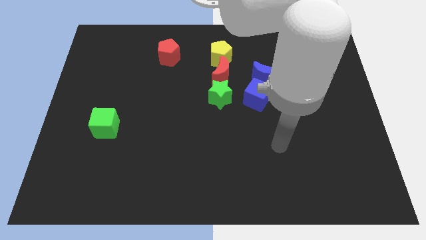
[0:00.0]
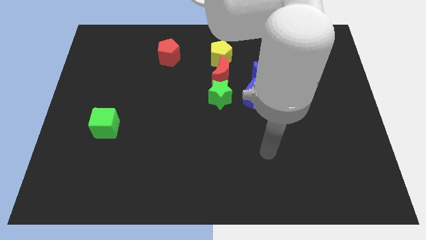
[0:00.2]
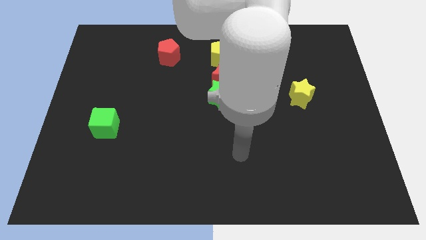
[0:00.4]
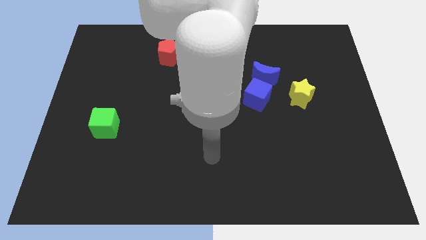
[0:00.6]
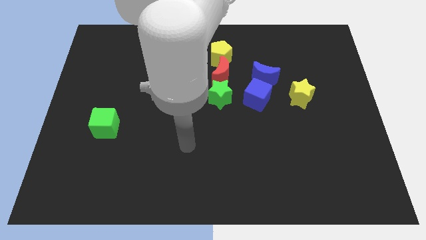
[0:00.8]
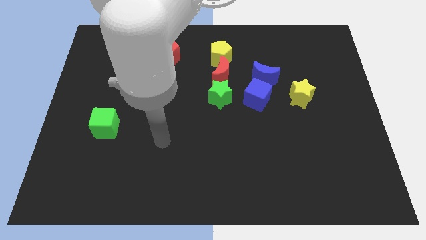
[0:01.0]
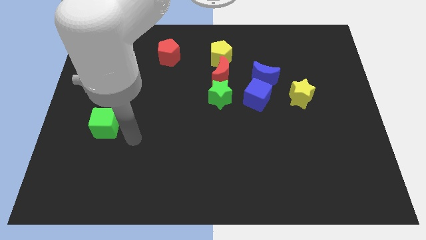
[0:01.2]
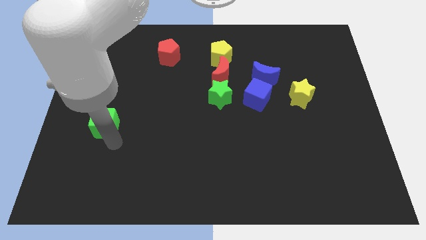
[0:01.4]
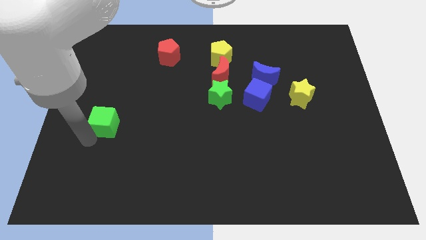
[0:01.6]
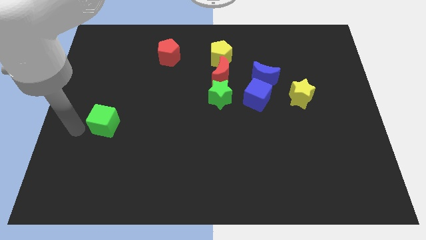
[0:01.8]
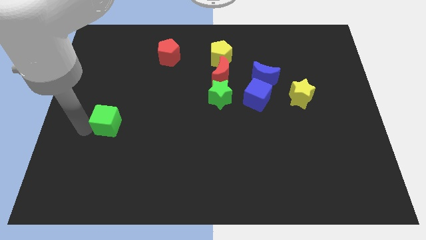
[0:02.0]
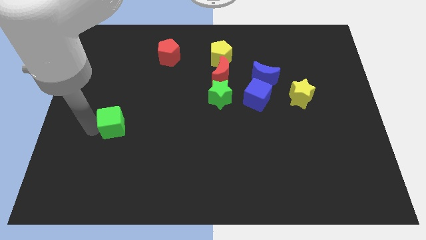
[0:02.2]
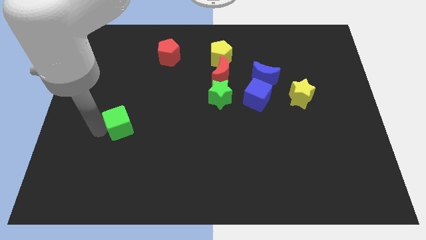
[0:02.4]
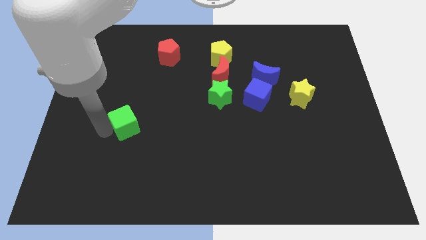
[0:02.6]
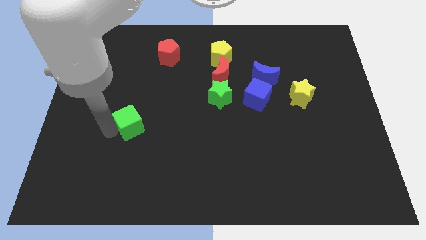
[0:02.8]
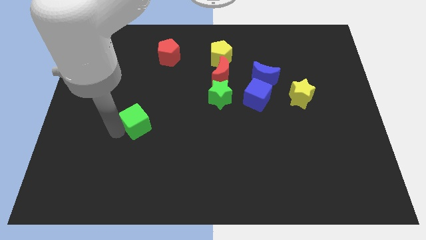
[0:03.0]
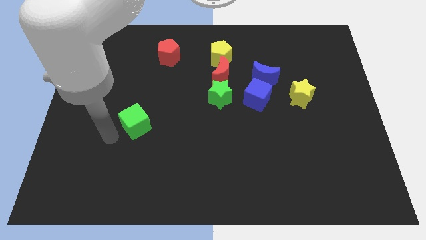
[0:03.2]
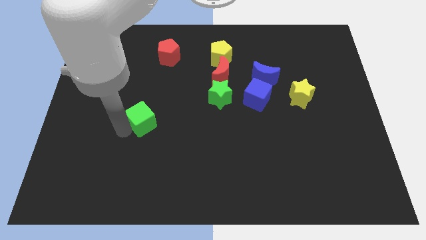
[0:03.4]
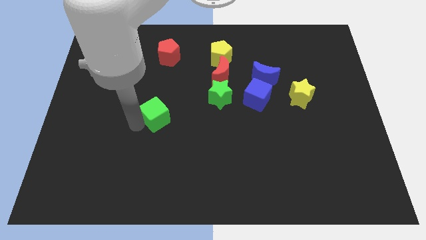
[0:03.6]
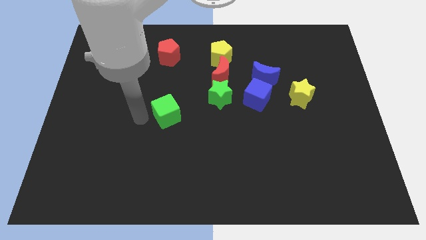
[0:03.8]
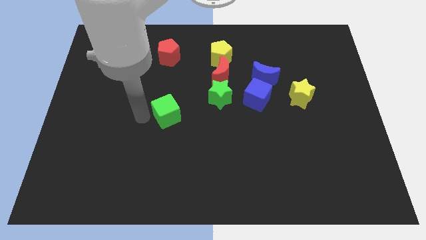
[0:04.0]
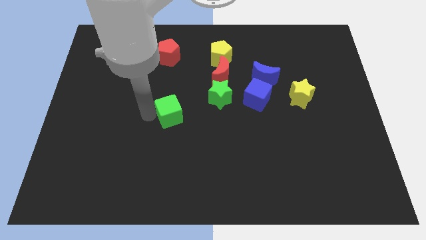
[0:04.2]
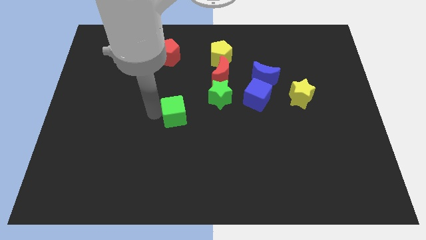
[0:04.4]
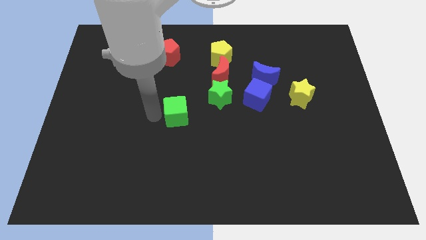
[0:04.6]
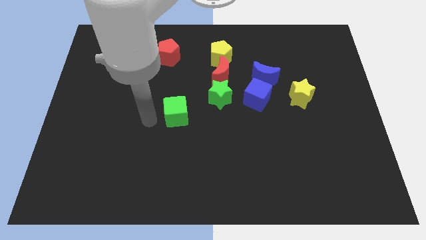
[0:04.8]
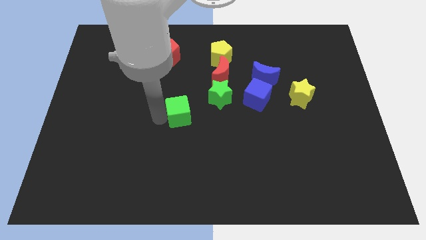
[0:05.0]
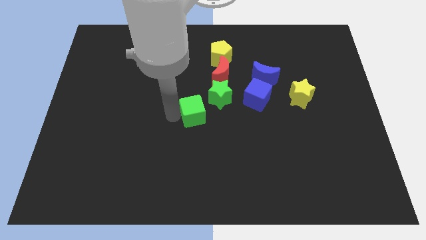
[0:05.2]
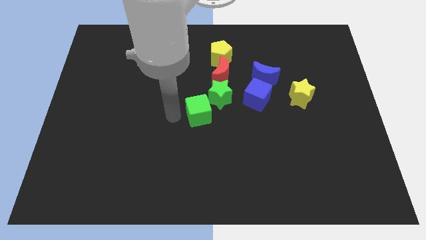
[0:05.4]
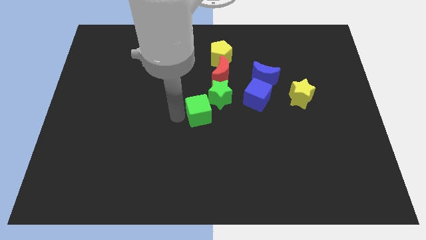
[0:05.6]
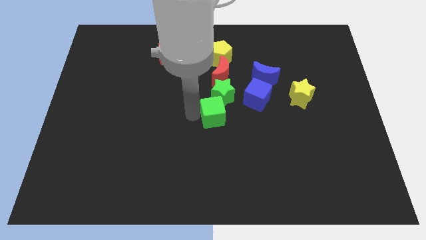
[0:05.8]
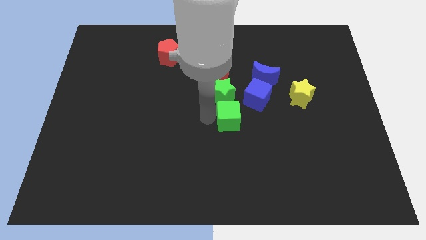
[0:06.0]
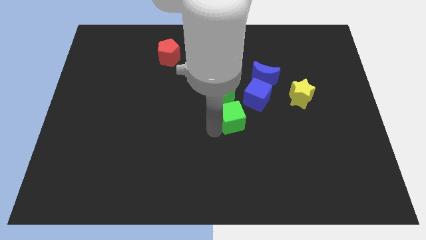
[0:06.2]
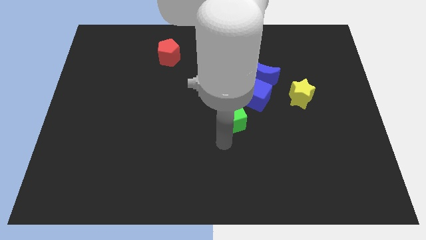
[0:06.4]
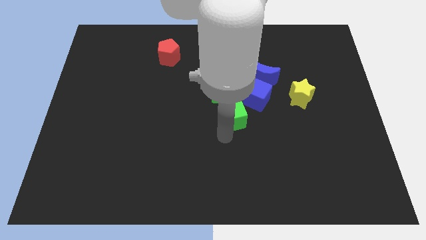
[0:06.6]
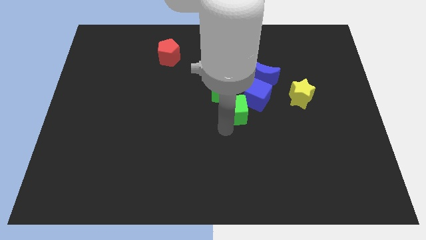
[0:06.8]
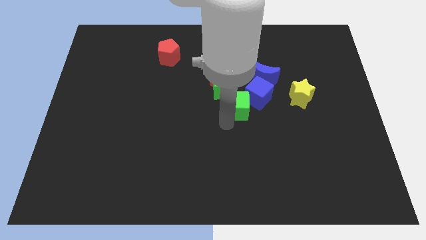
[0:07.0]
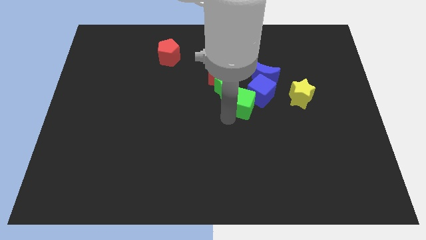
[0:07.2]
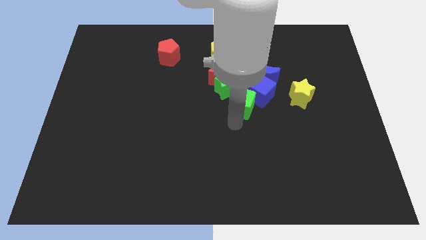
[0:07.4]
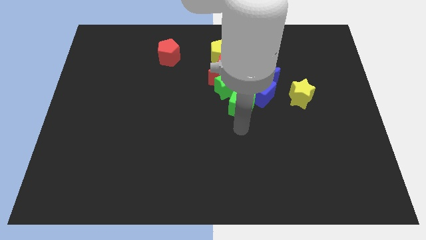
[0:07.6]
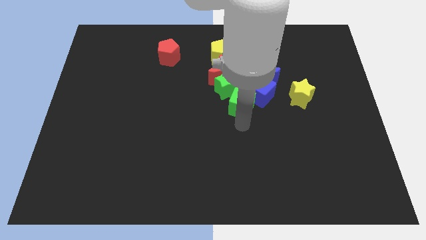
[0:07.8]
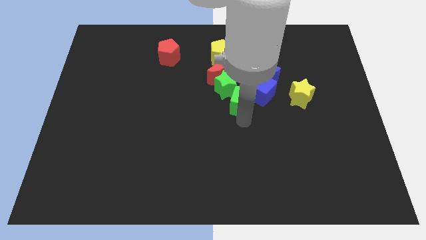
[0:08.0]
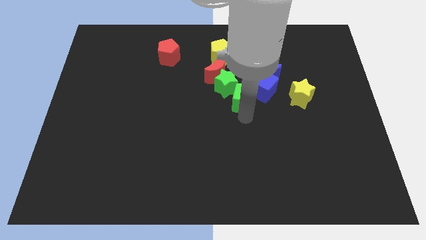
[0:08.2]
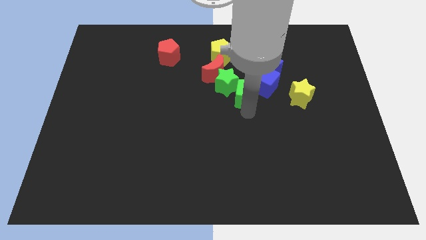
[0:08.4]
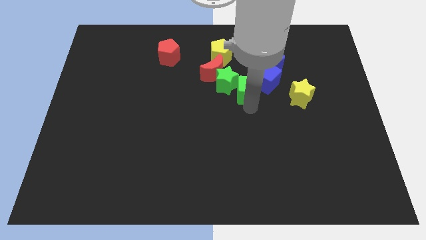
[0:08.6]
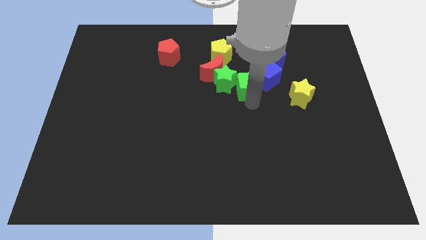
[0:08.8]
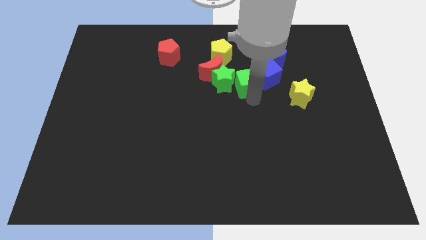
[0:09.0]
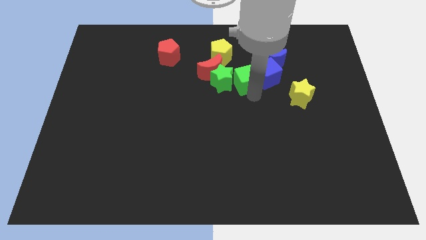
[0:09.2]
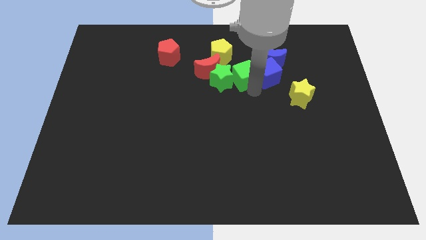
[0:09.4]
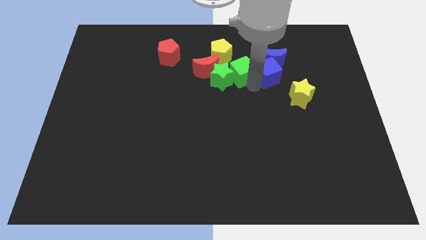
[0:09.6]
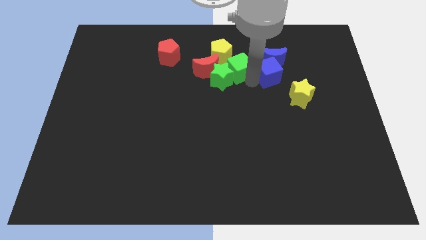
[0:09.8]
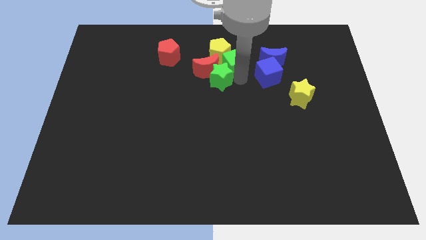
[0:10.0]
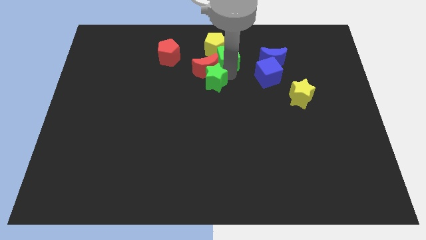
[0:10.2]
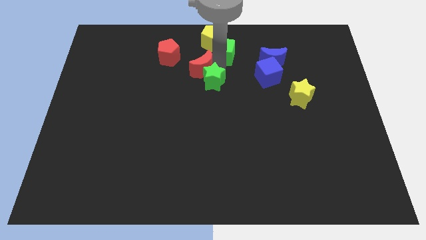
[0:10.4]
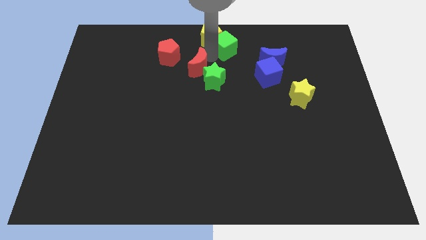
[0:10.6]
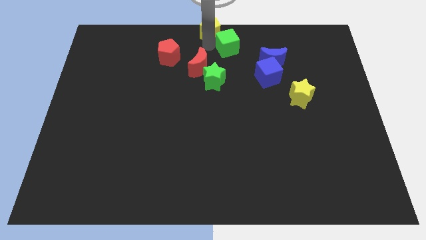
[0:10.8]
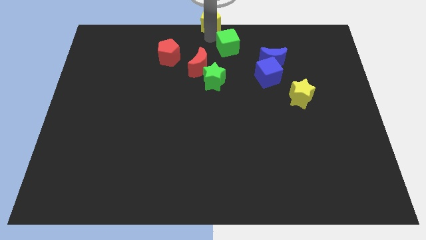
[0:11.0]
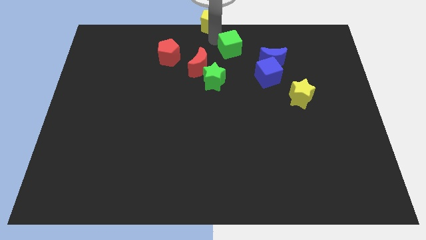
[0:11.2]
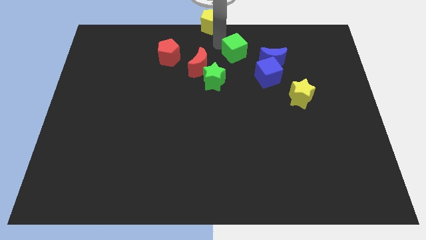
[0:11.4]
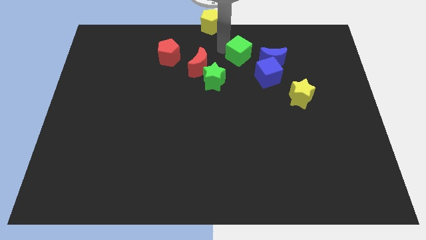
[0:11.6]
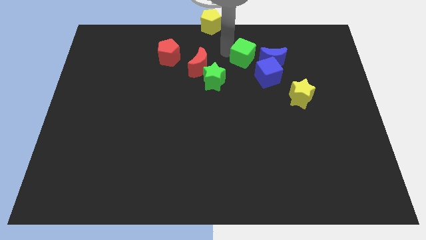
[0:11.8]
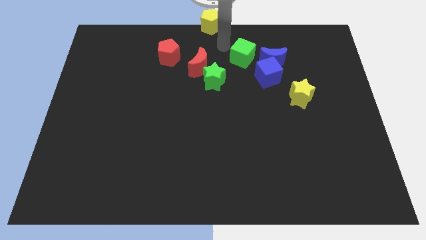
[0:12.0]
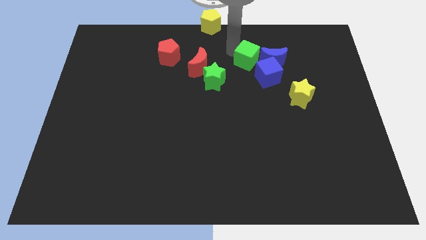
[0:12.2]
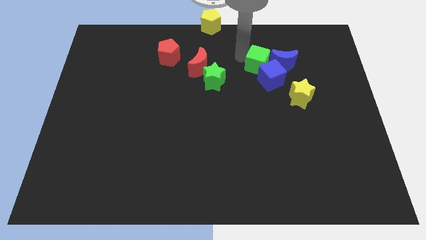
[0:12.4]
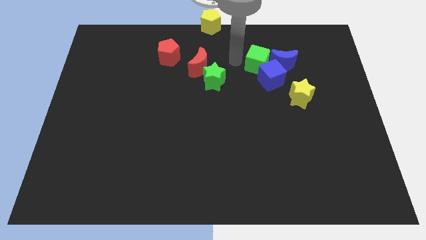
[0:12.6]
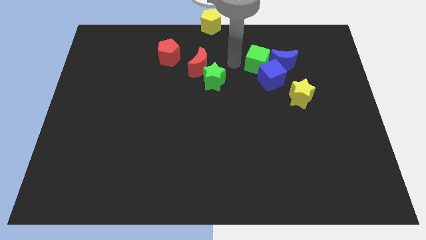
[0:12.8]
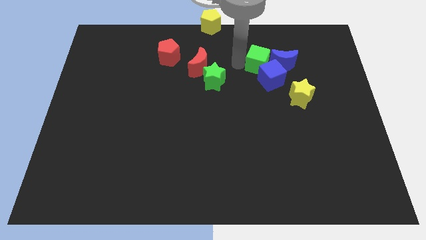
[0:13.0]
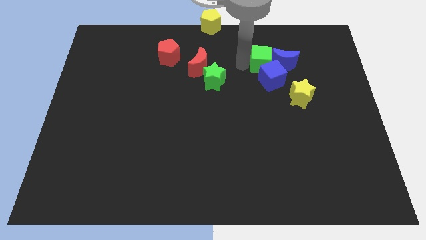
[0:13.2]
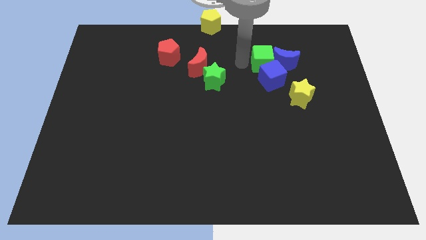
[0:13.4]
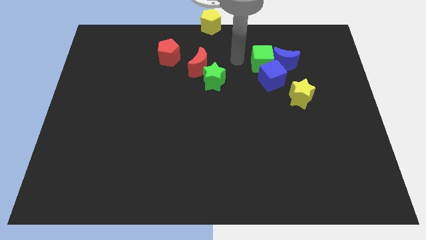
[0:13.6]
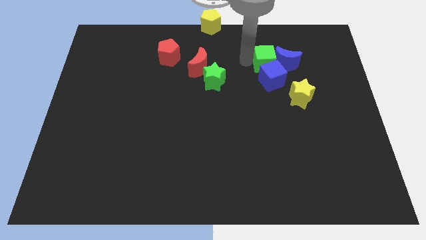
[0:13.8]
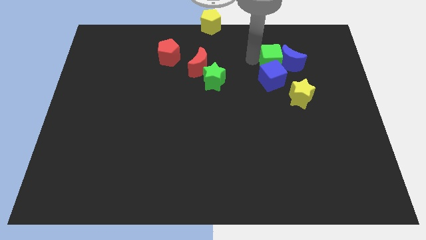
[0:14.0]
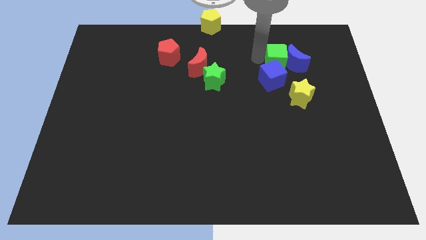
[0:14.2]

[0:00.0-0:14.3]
push the green cube to the top of the yellow star
